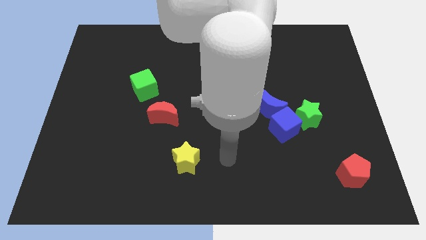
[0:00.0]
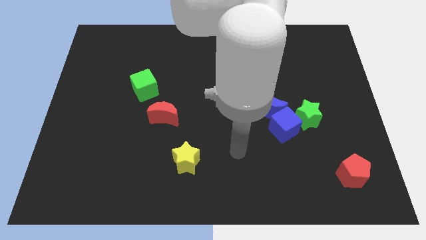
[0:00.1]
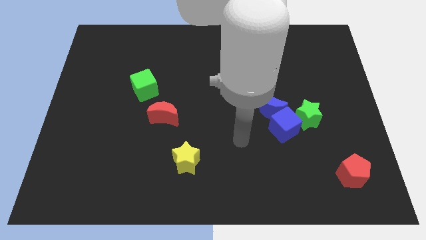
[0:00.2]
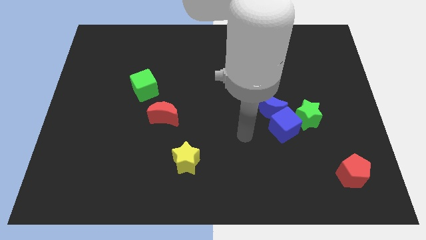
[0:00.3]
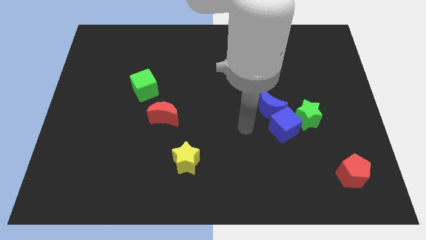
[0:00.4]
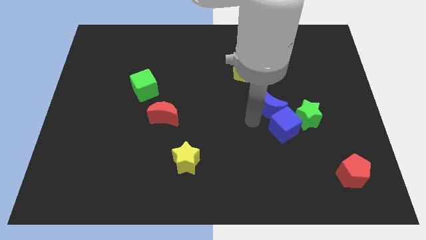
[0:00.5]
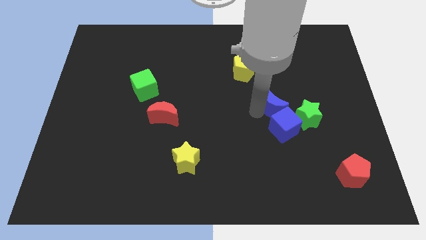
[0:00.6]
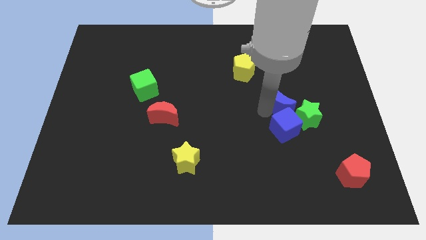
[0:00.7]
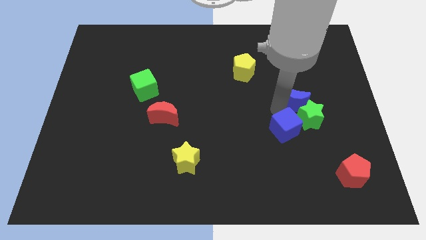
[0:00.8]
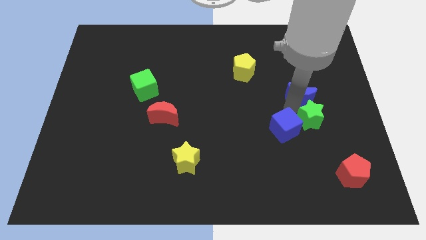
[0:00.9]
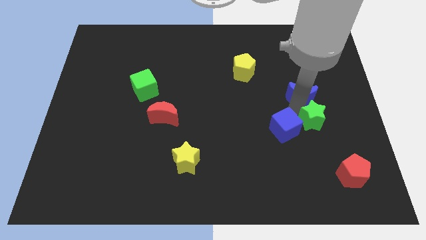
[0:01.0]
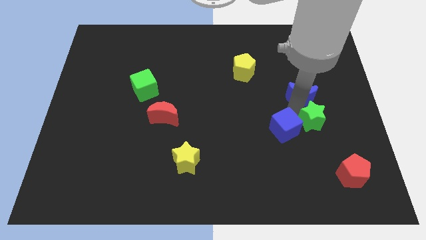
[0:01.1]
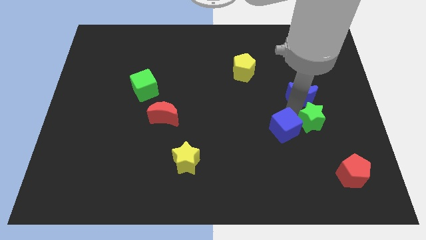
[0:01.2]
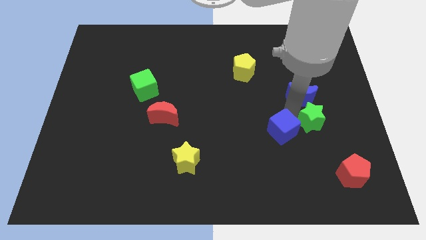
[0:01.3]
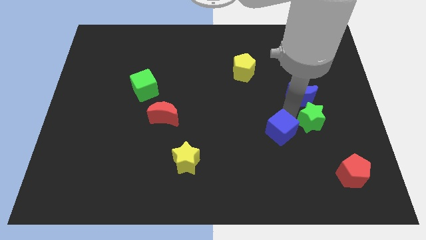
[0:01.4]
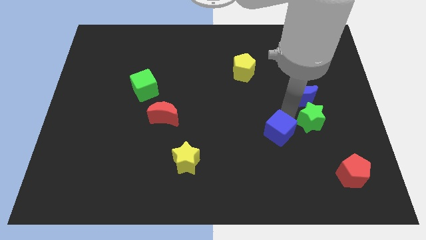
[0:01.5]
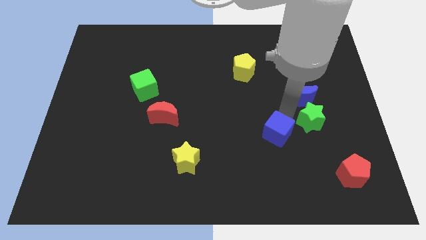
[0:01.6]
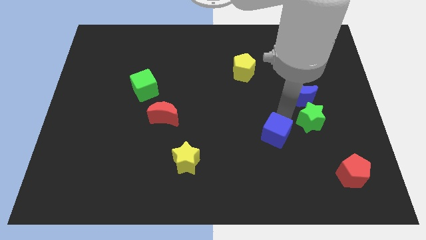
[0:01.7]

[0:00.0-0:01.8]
move the blue cube away from the blue moon and green star

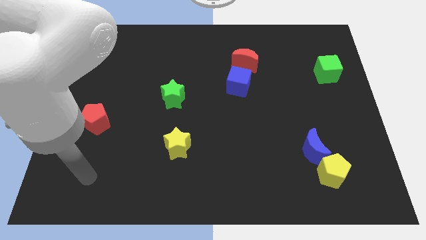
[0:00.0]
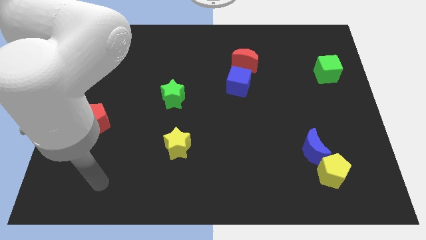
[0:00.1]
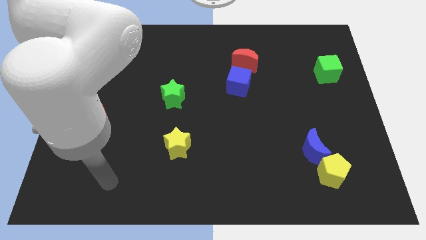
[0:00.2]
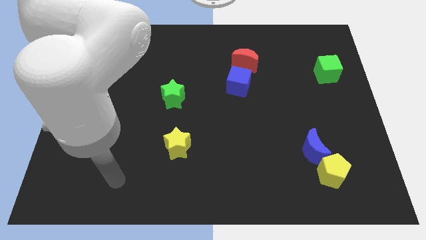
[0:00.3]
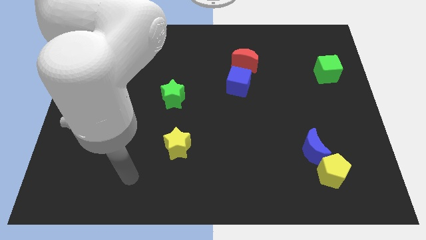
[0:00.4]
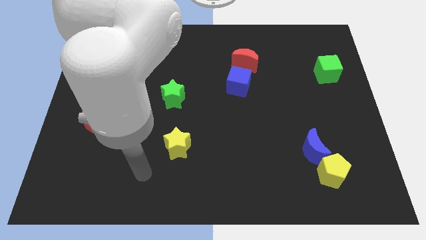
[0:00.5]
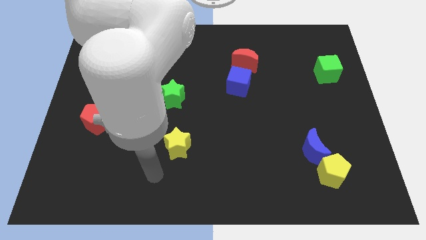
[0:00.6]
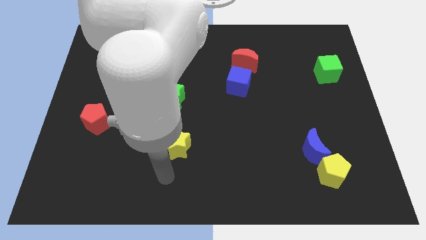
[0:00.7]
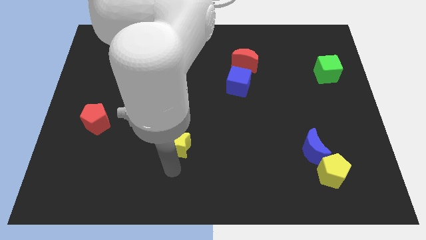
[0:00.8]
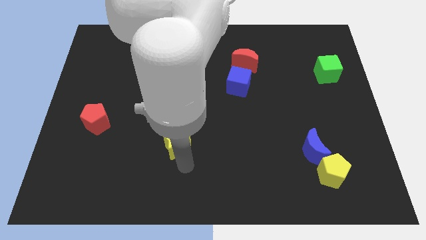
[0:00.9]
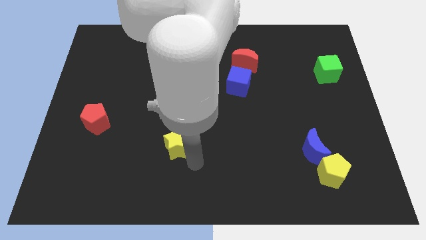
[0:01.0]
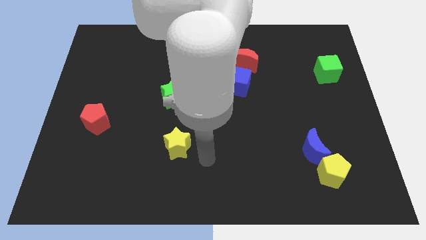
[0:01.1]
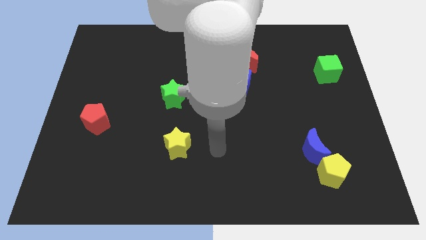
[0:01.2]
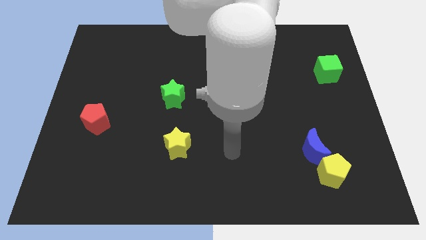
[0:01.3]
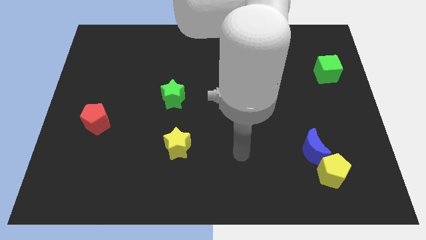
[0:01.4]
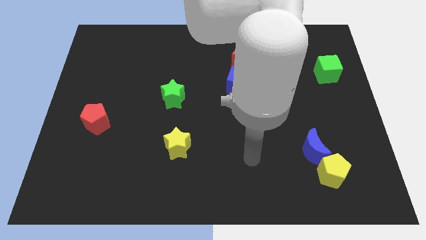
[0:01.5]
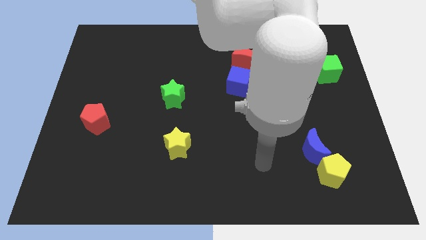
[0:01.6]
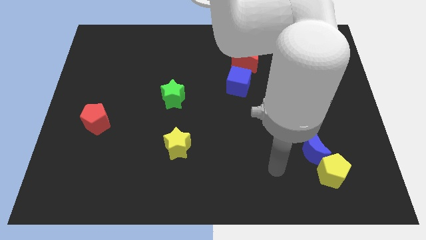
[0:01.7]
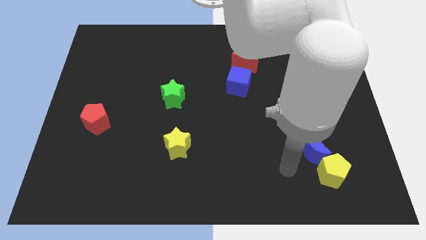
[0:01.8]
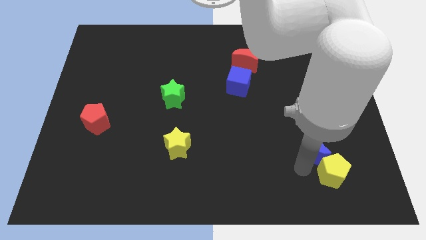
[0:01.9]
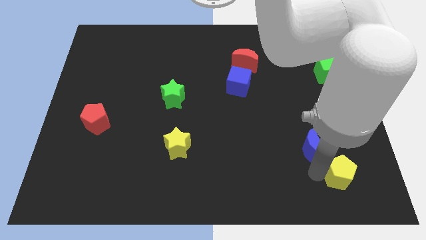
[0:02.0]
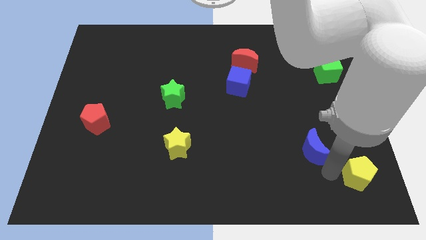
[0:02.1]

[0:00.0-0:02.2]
move the blue moon away from the yellow pentagon

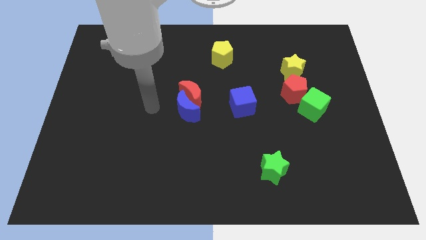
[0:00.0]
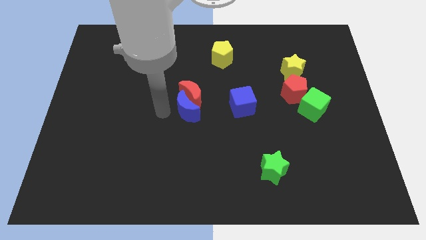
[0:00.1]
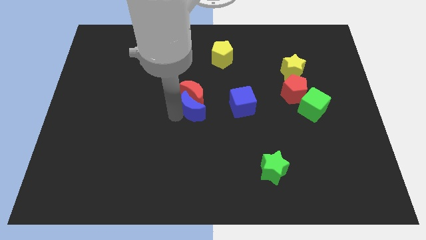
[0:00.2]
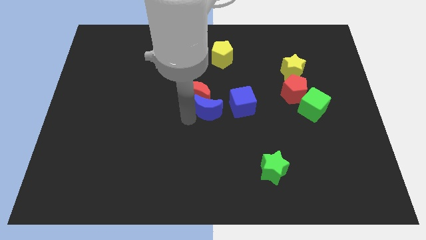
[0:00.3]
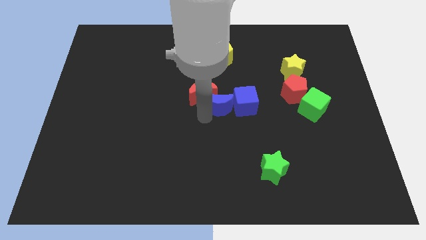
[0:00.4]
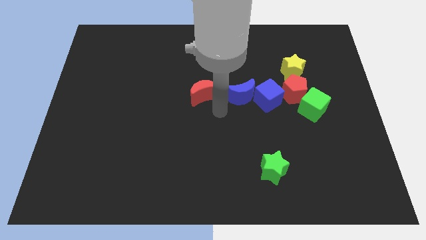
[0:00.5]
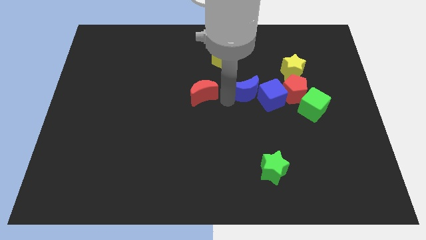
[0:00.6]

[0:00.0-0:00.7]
move the red moon away from the blue moon

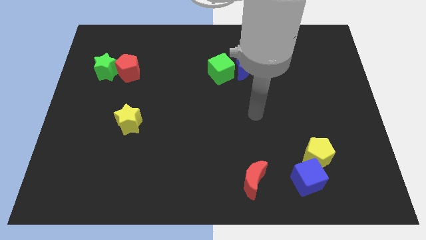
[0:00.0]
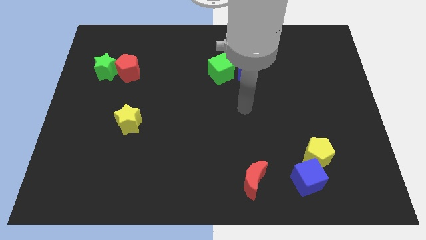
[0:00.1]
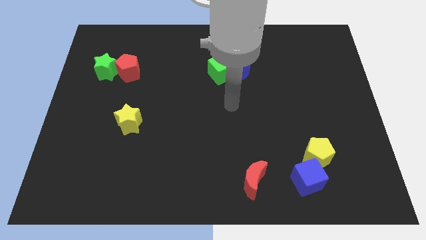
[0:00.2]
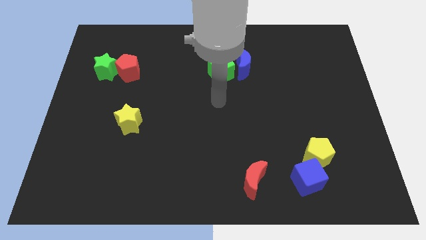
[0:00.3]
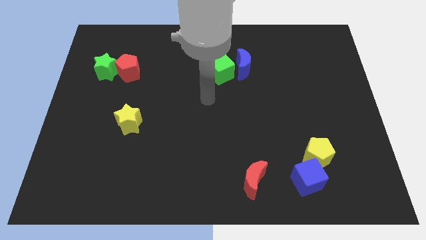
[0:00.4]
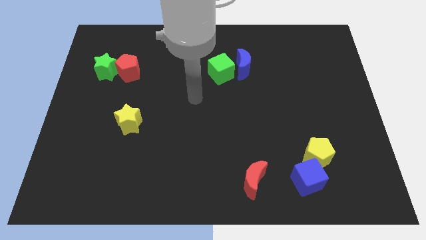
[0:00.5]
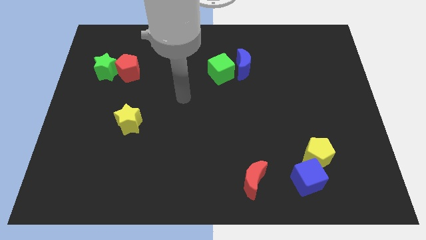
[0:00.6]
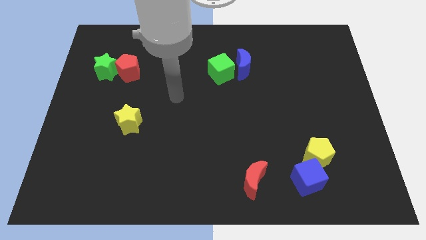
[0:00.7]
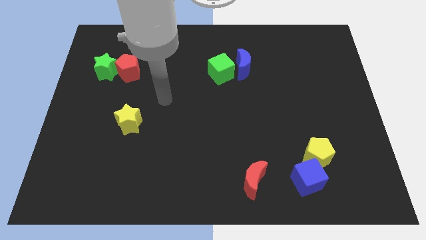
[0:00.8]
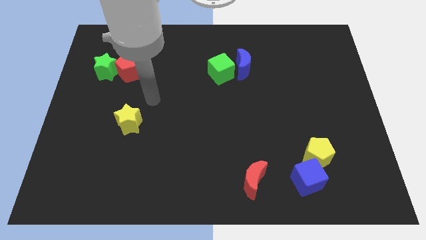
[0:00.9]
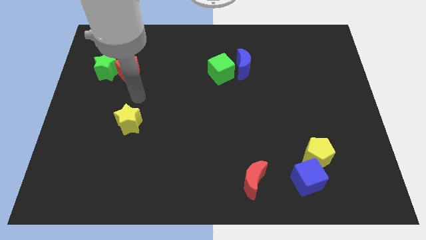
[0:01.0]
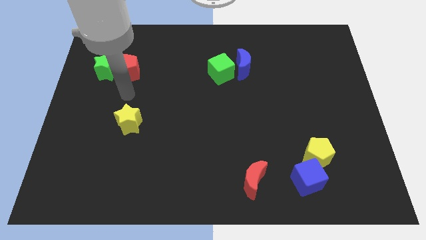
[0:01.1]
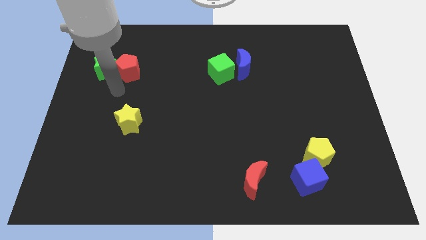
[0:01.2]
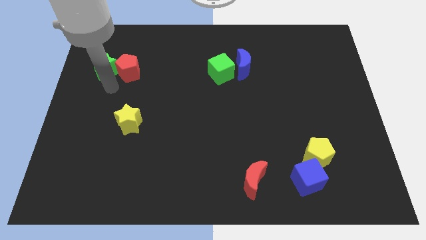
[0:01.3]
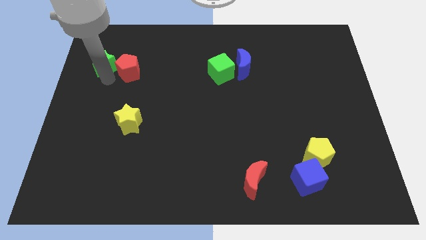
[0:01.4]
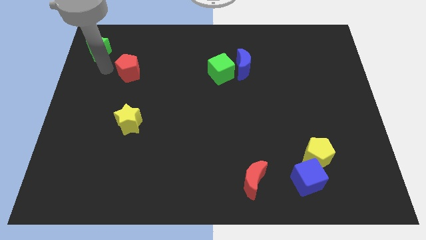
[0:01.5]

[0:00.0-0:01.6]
separate the red pentagon from the green star

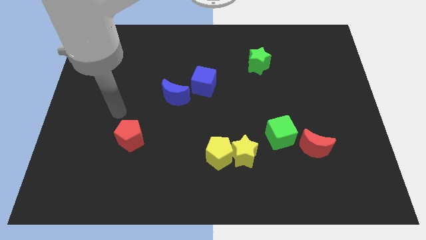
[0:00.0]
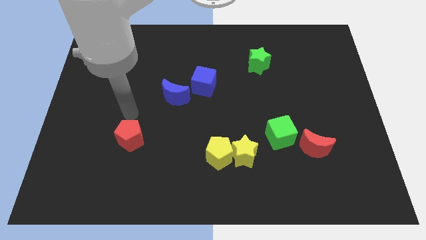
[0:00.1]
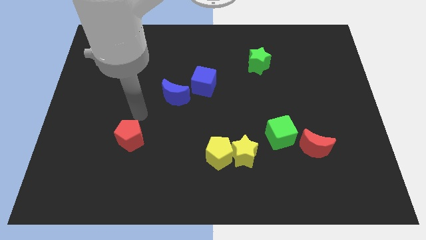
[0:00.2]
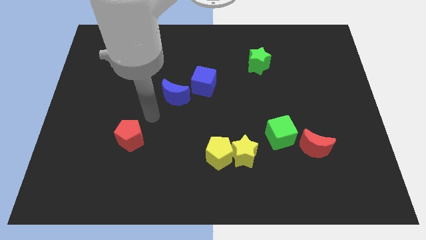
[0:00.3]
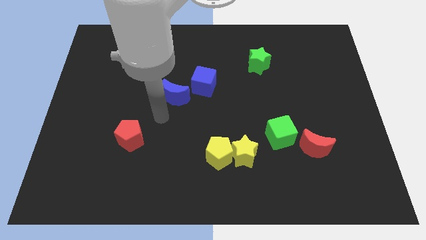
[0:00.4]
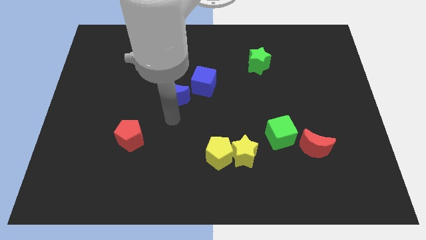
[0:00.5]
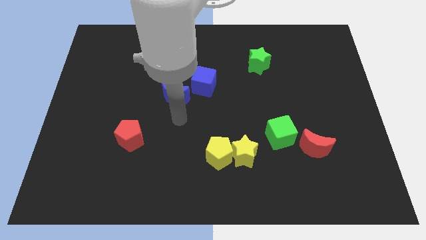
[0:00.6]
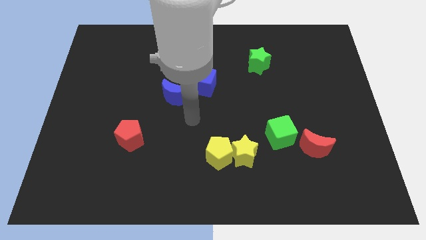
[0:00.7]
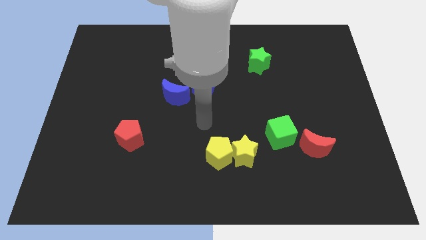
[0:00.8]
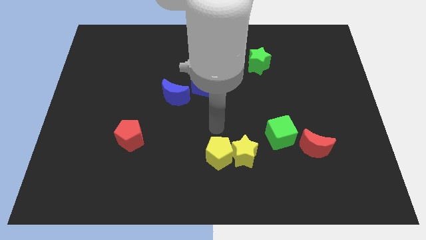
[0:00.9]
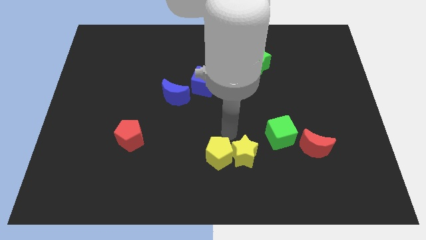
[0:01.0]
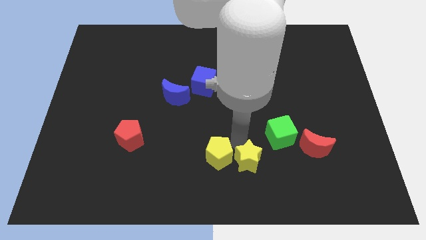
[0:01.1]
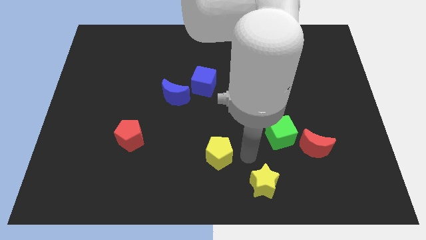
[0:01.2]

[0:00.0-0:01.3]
move the yellow pentagon away from the yellow star

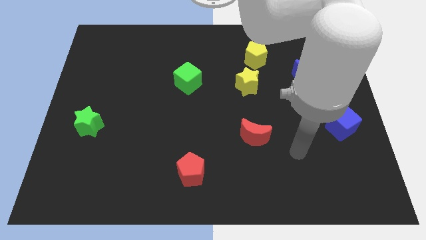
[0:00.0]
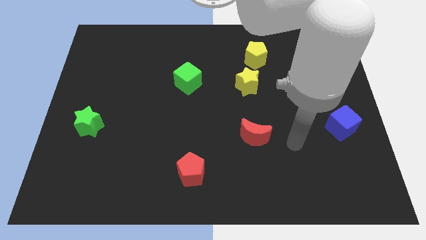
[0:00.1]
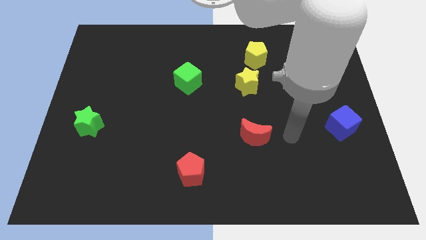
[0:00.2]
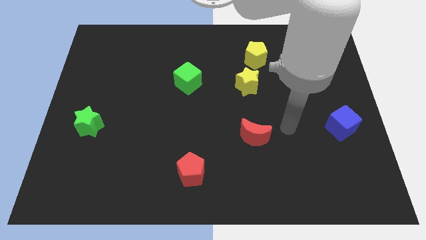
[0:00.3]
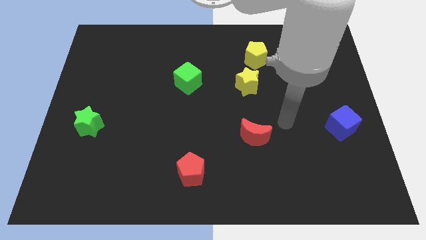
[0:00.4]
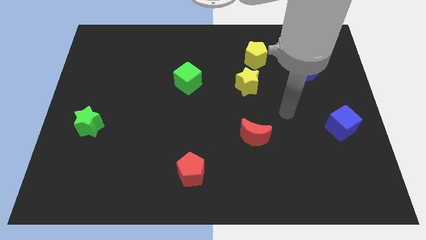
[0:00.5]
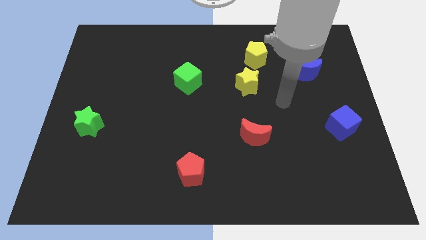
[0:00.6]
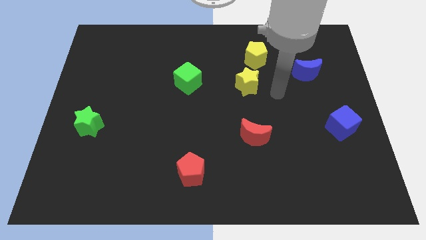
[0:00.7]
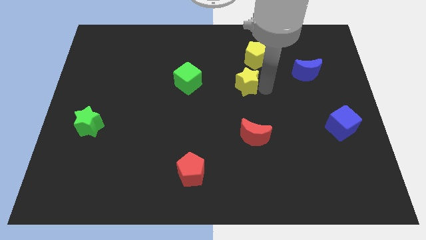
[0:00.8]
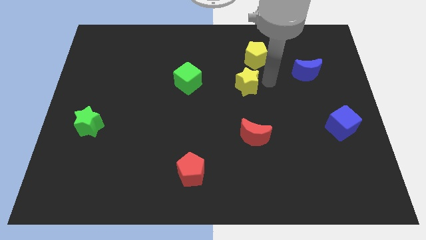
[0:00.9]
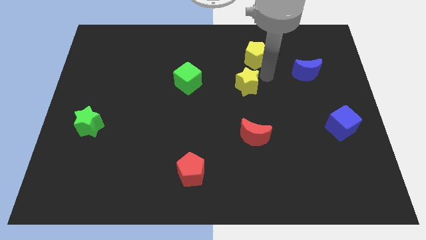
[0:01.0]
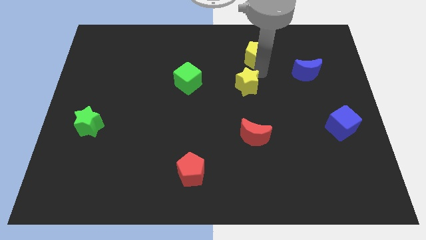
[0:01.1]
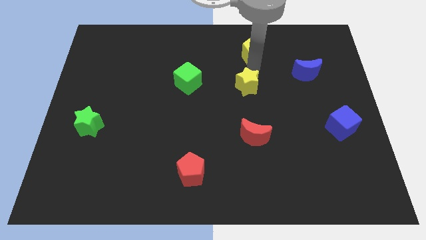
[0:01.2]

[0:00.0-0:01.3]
pull the yellow star apart from the yellow pentagon

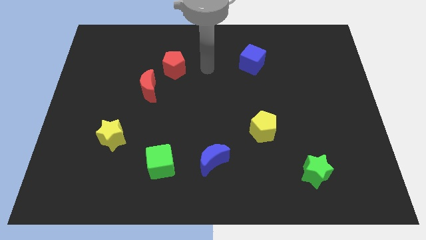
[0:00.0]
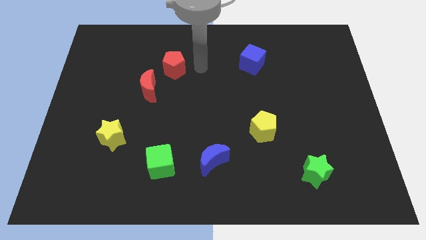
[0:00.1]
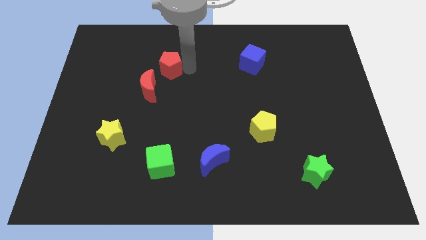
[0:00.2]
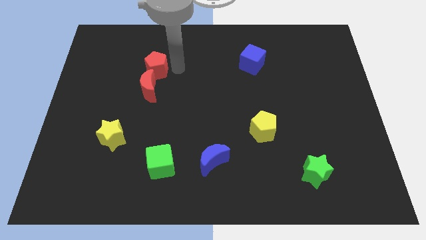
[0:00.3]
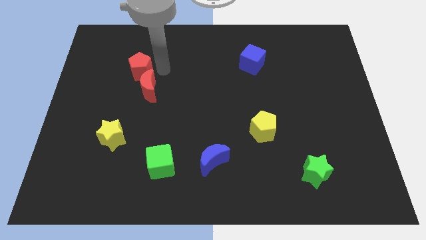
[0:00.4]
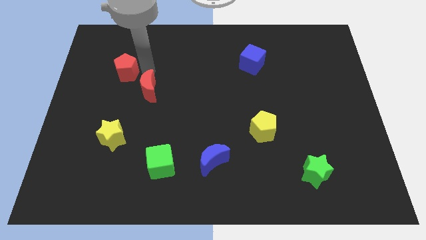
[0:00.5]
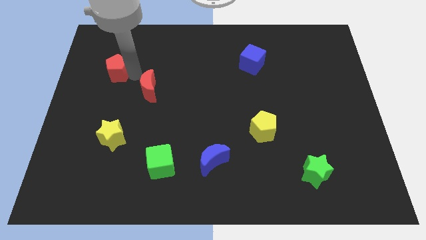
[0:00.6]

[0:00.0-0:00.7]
separate the red moon from the red pentagon
